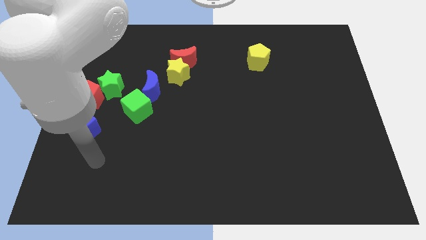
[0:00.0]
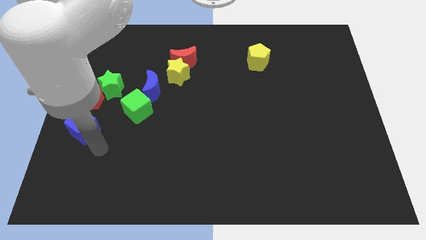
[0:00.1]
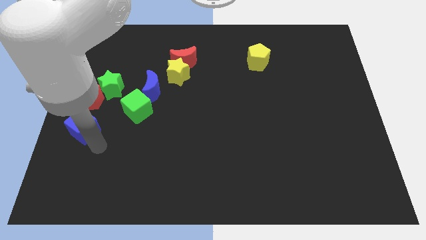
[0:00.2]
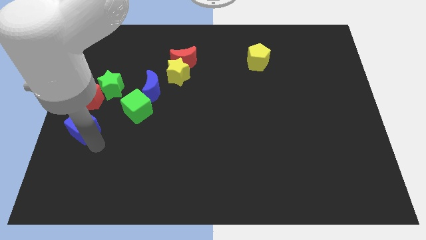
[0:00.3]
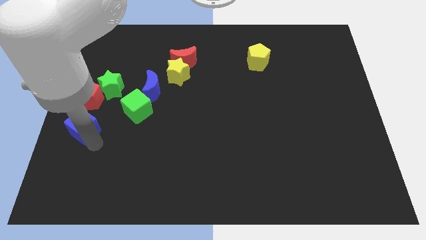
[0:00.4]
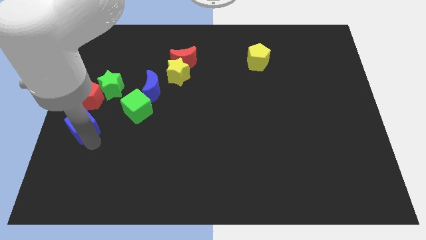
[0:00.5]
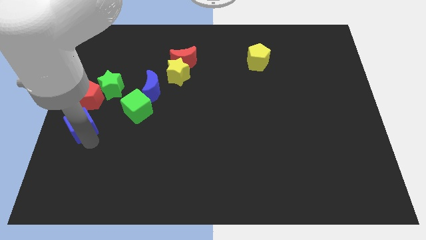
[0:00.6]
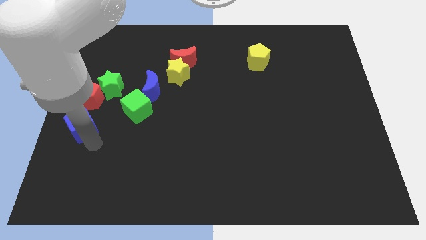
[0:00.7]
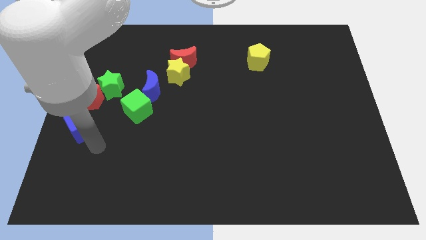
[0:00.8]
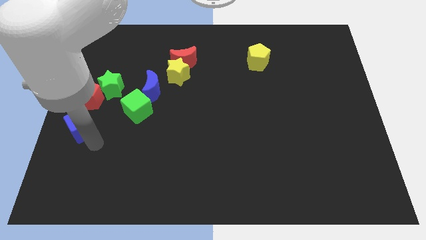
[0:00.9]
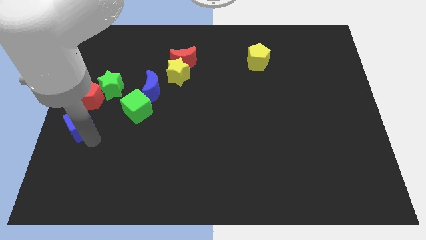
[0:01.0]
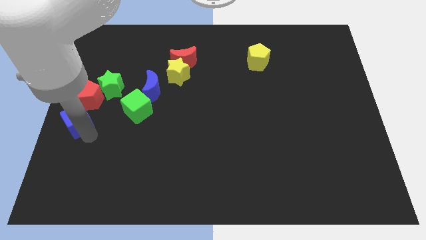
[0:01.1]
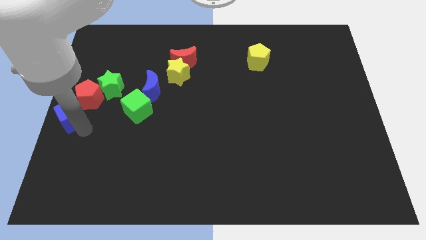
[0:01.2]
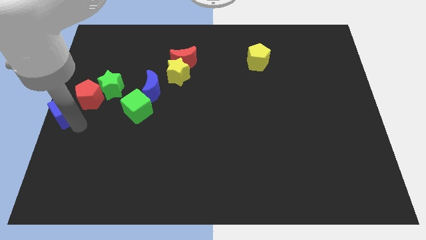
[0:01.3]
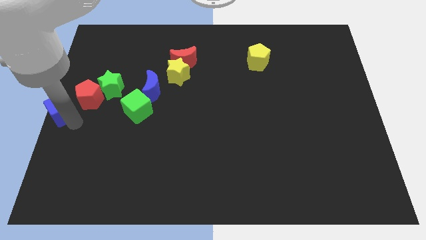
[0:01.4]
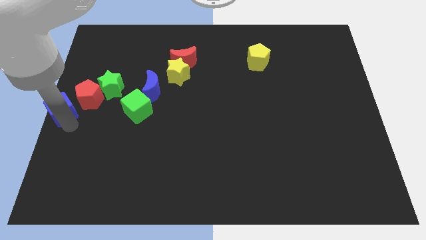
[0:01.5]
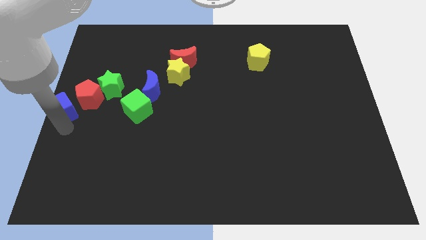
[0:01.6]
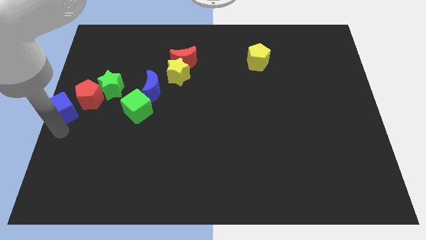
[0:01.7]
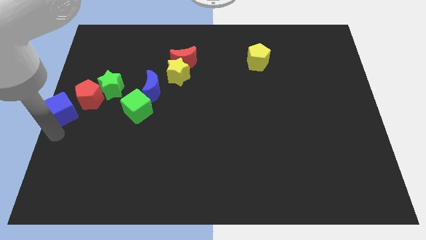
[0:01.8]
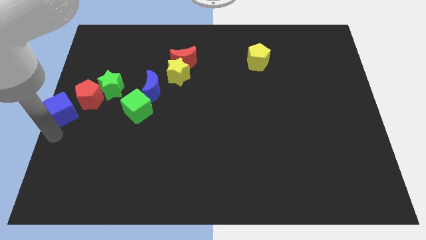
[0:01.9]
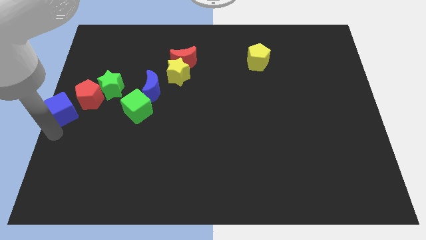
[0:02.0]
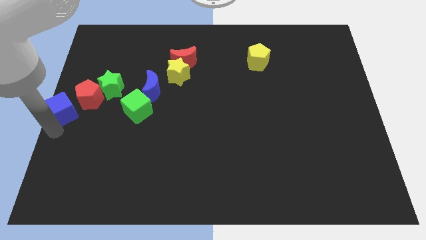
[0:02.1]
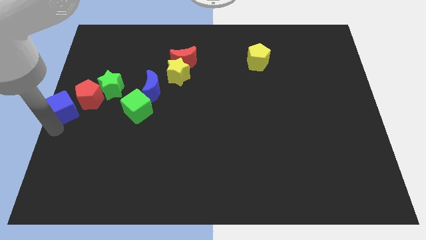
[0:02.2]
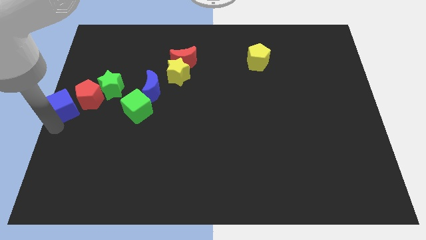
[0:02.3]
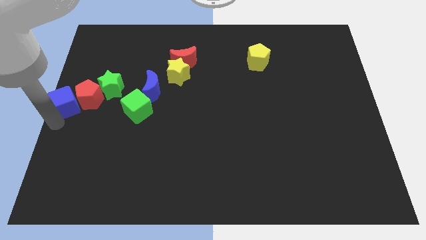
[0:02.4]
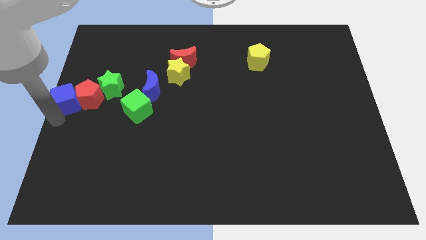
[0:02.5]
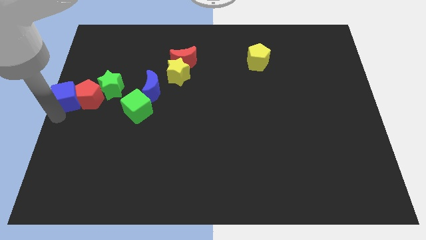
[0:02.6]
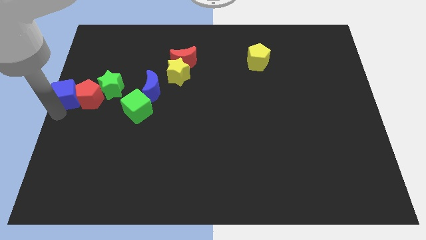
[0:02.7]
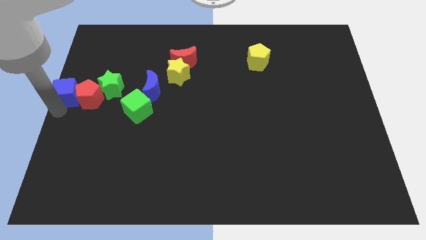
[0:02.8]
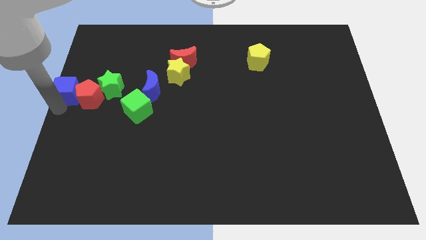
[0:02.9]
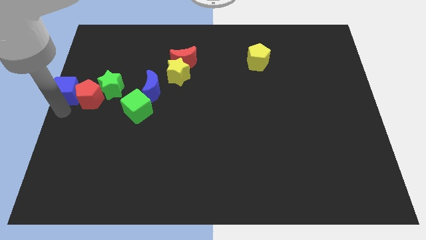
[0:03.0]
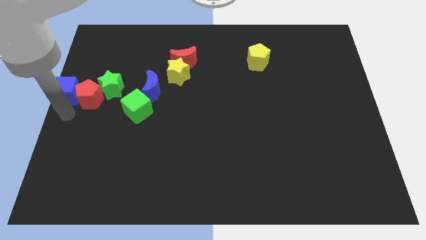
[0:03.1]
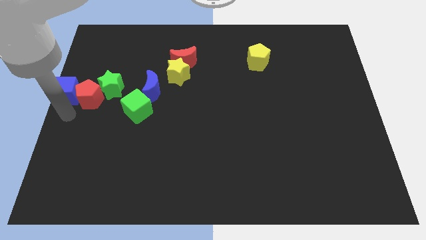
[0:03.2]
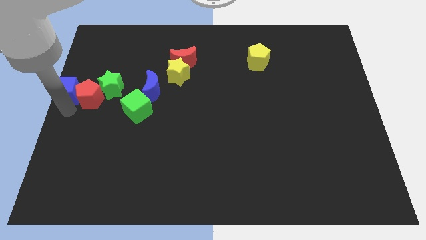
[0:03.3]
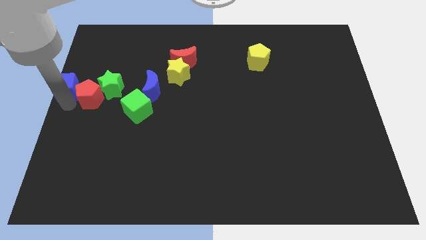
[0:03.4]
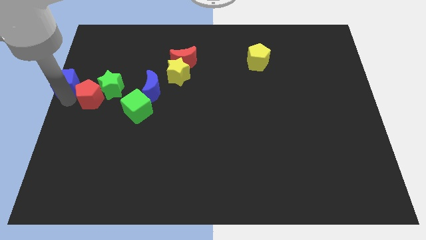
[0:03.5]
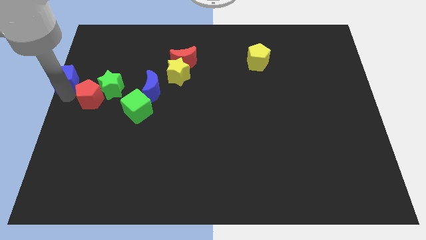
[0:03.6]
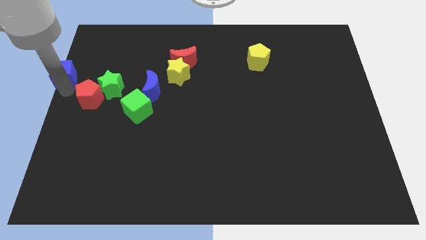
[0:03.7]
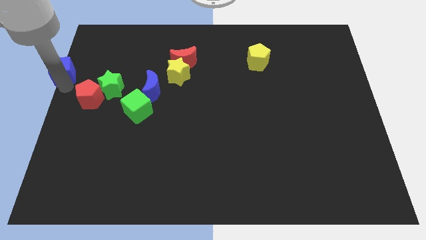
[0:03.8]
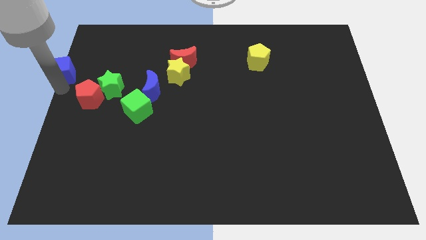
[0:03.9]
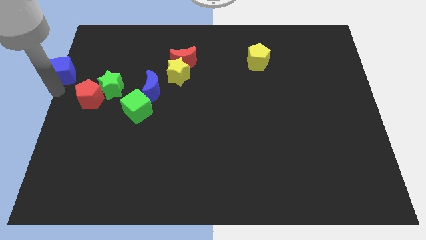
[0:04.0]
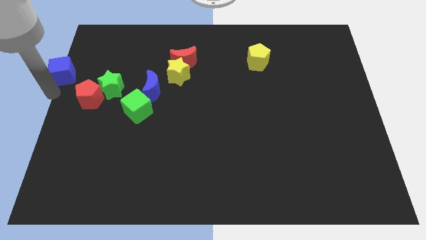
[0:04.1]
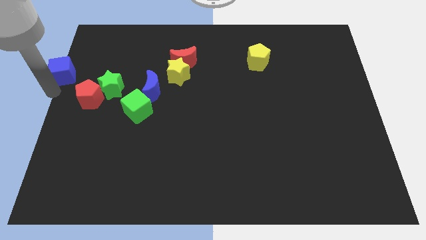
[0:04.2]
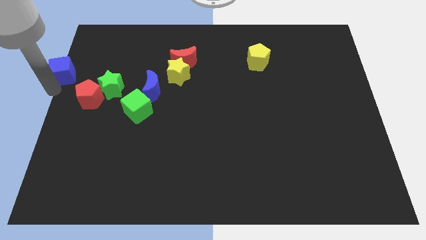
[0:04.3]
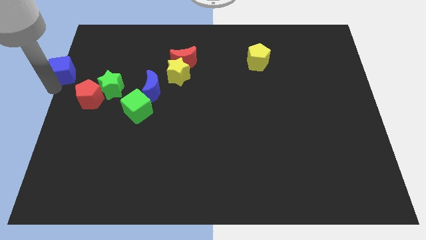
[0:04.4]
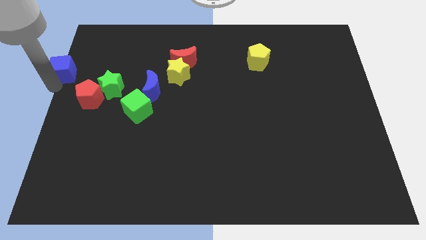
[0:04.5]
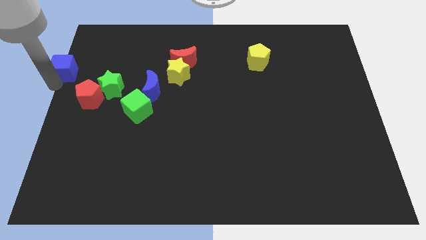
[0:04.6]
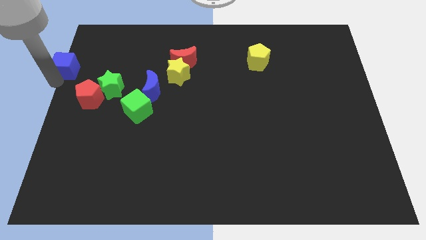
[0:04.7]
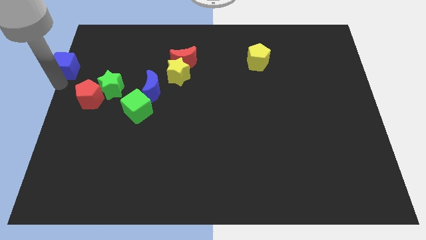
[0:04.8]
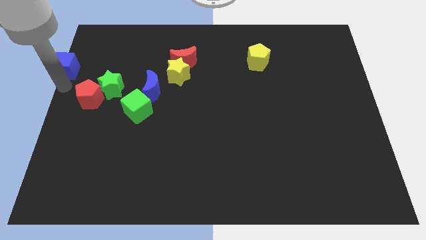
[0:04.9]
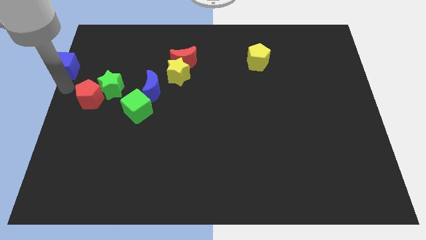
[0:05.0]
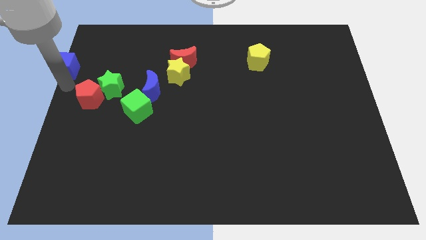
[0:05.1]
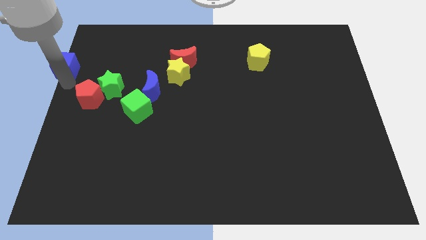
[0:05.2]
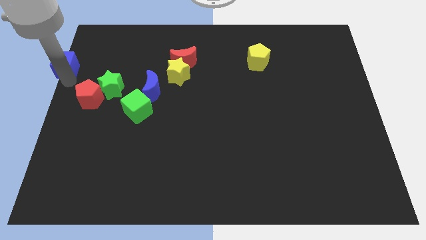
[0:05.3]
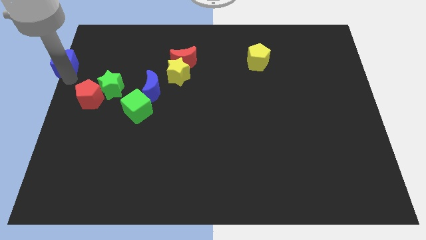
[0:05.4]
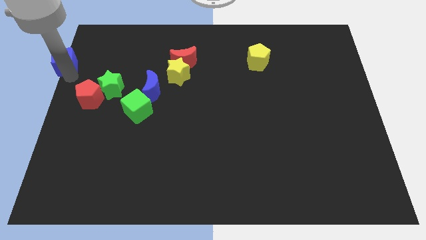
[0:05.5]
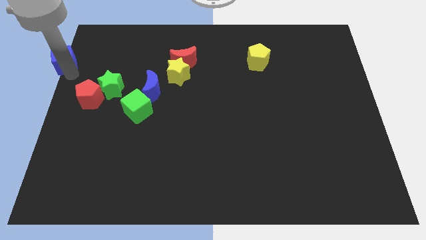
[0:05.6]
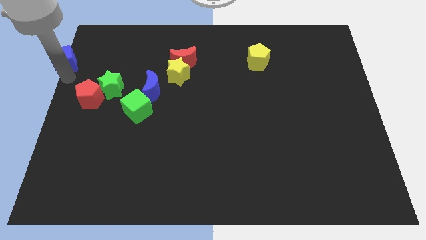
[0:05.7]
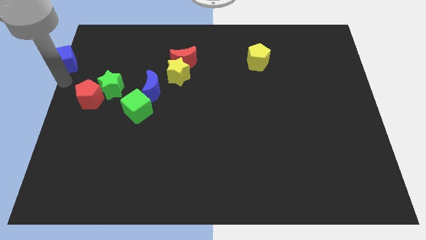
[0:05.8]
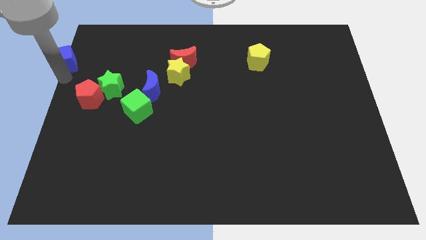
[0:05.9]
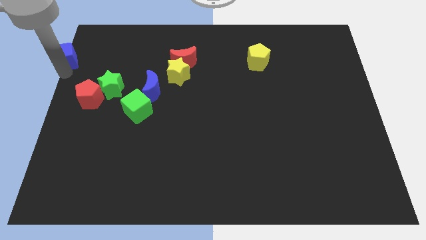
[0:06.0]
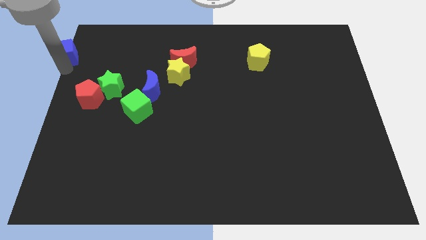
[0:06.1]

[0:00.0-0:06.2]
push the blue cube to the top left

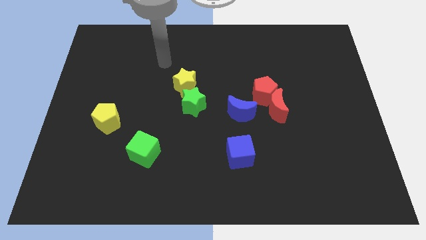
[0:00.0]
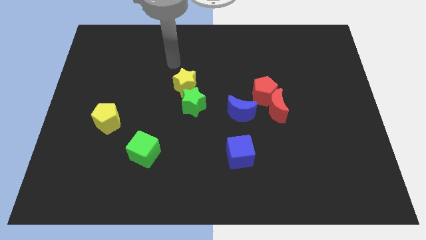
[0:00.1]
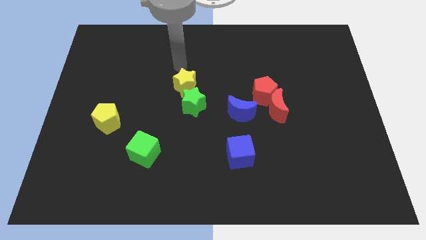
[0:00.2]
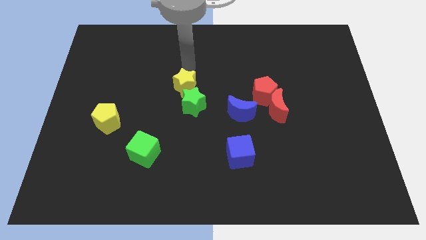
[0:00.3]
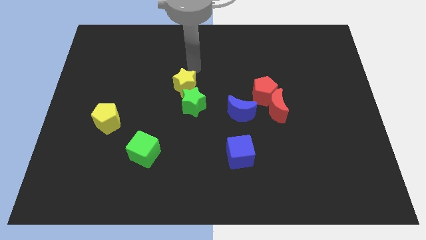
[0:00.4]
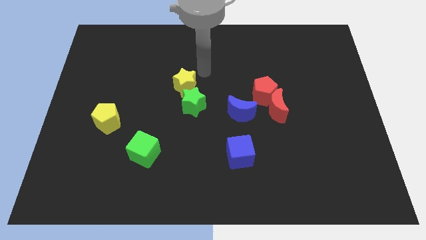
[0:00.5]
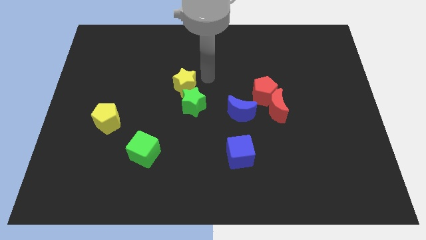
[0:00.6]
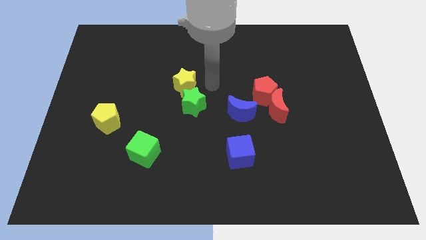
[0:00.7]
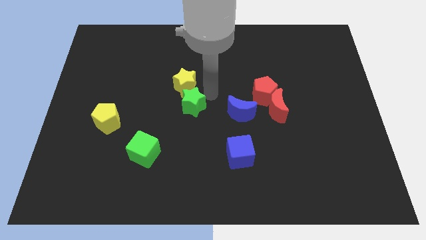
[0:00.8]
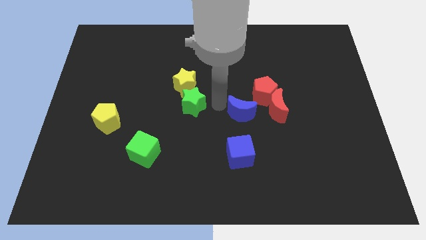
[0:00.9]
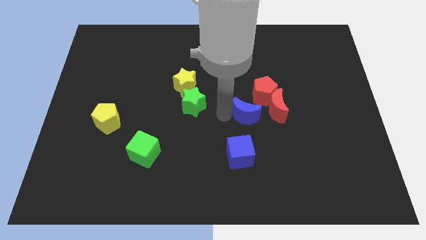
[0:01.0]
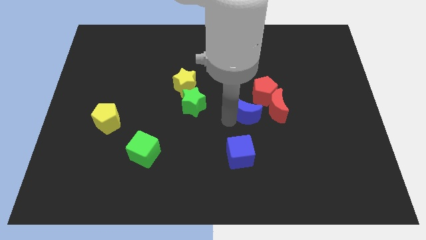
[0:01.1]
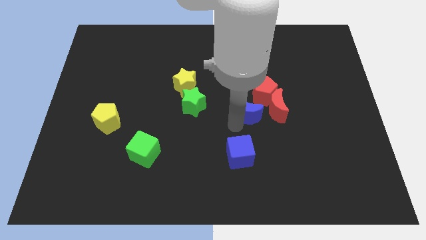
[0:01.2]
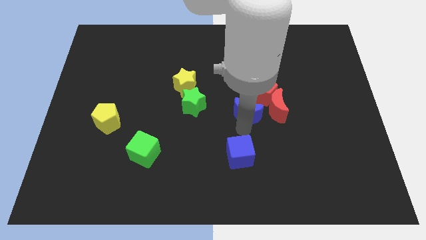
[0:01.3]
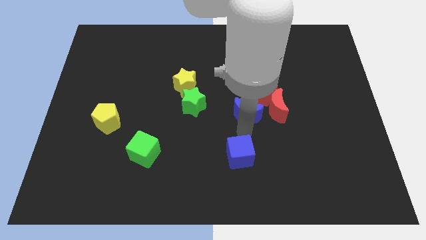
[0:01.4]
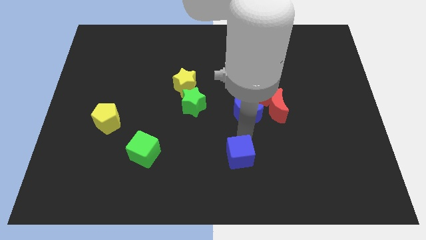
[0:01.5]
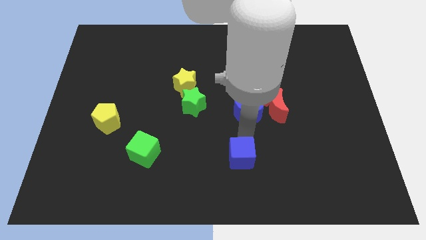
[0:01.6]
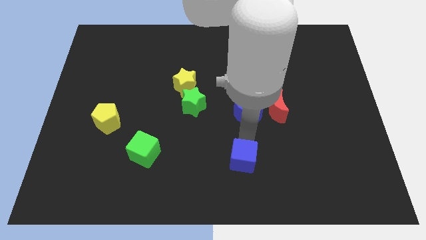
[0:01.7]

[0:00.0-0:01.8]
push the blue cube to the bottom side
